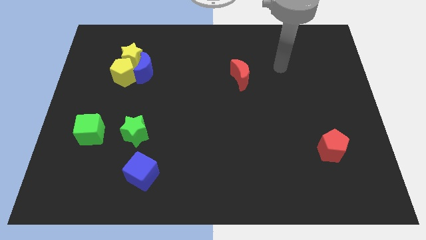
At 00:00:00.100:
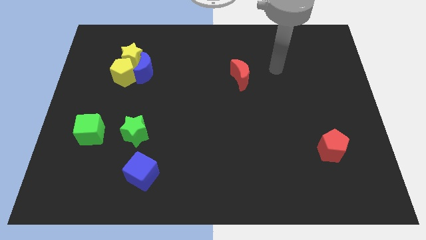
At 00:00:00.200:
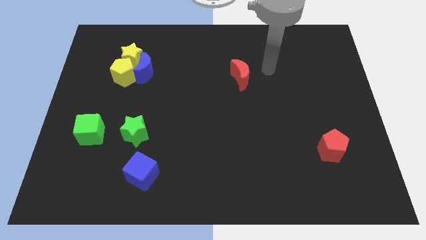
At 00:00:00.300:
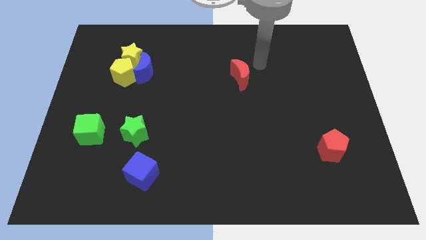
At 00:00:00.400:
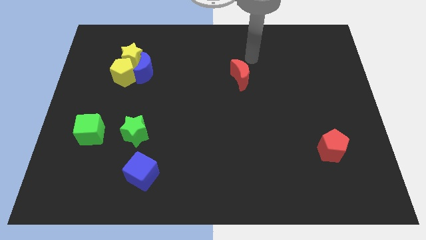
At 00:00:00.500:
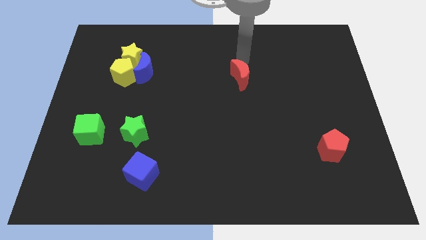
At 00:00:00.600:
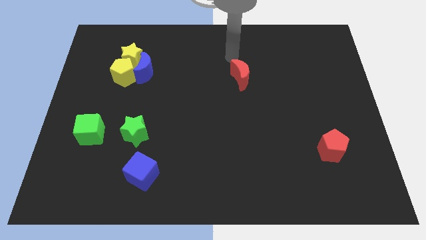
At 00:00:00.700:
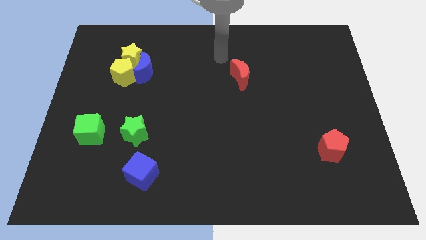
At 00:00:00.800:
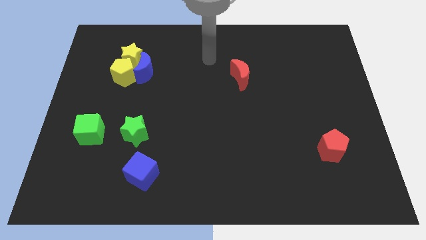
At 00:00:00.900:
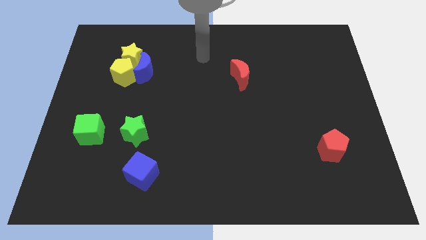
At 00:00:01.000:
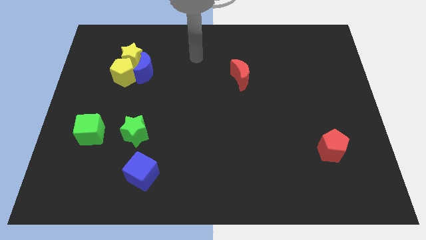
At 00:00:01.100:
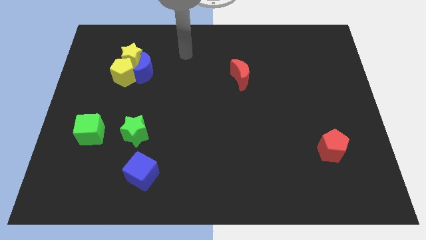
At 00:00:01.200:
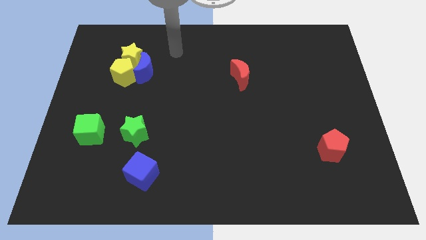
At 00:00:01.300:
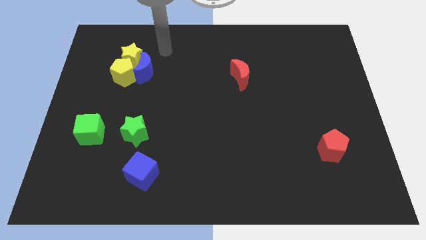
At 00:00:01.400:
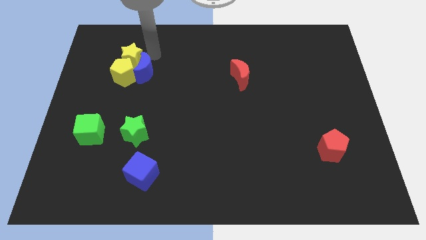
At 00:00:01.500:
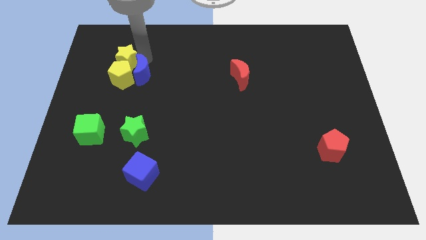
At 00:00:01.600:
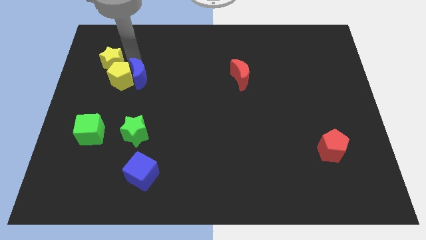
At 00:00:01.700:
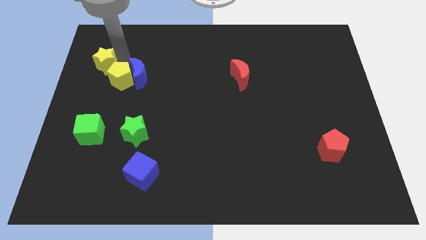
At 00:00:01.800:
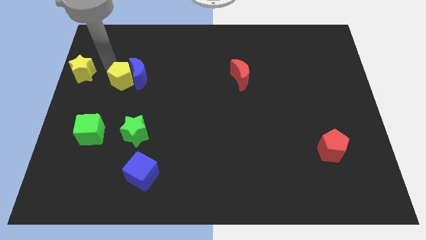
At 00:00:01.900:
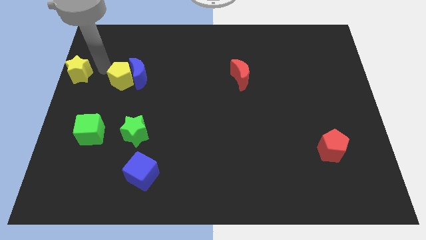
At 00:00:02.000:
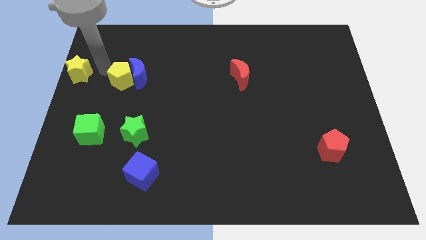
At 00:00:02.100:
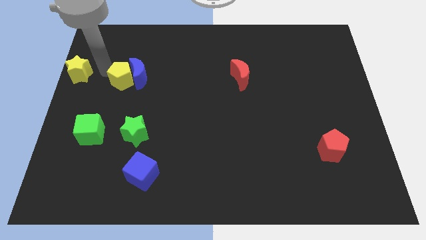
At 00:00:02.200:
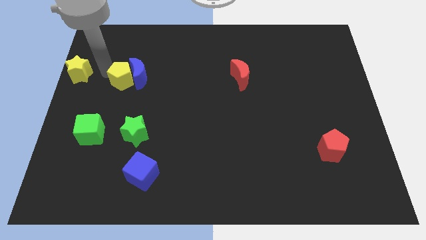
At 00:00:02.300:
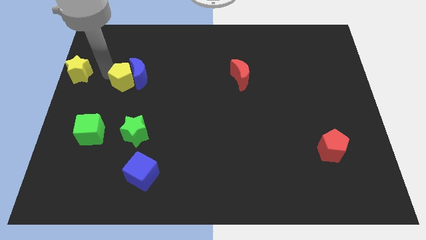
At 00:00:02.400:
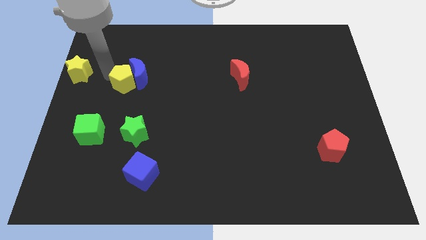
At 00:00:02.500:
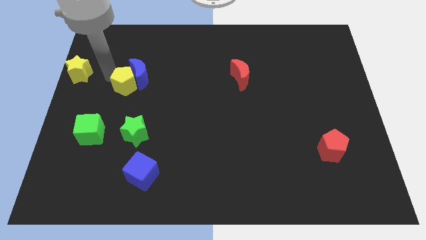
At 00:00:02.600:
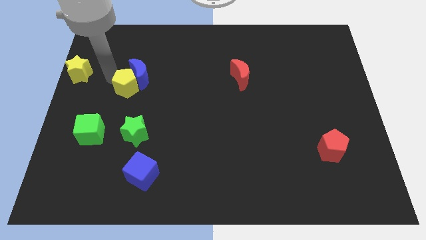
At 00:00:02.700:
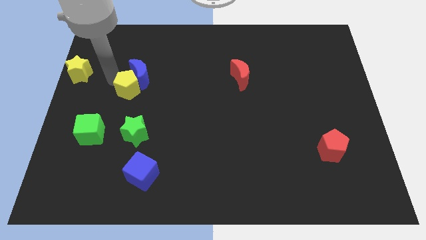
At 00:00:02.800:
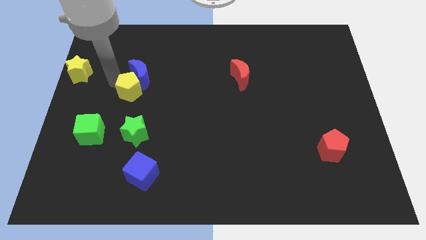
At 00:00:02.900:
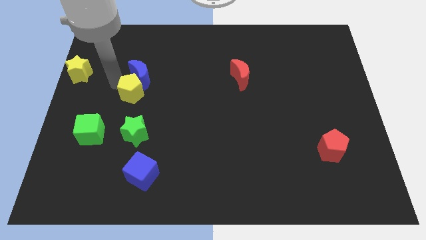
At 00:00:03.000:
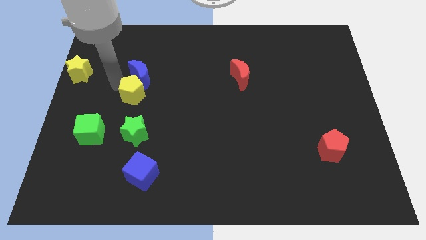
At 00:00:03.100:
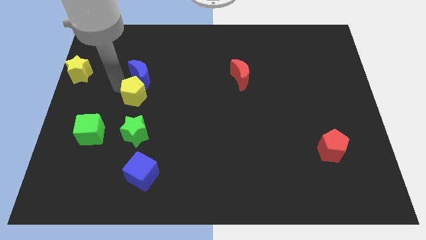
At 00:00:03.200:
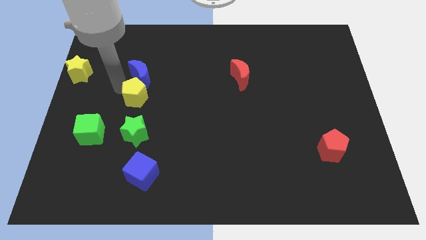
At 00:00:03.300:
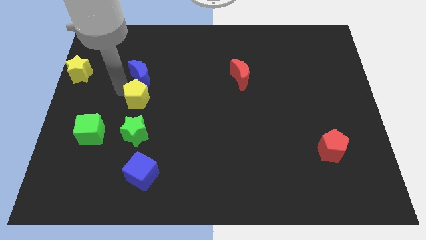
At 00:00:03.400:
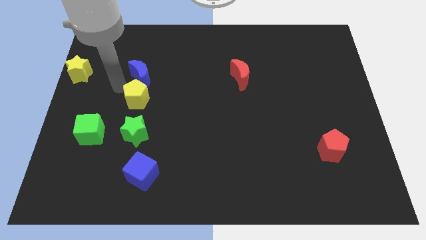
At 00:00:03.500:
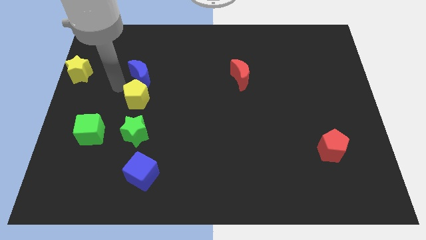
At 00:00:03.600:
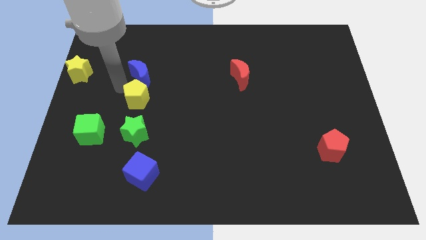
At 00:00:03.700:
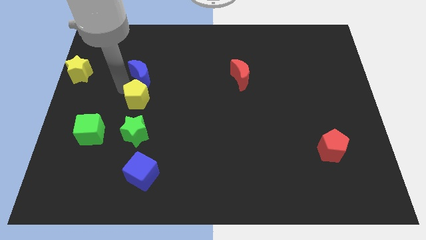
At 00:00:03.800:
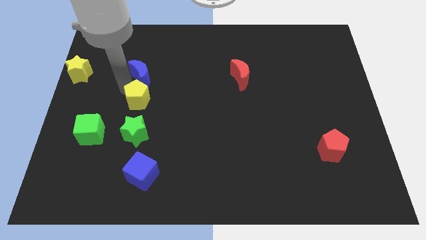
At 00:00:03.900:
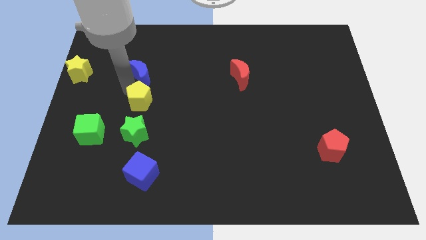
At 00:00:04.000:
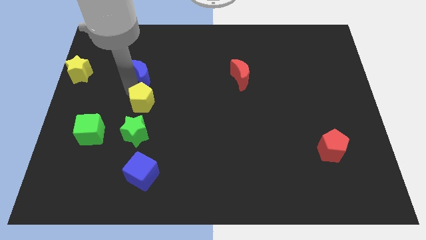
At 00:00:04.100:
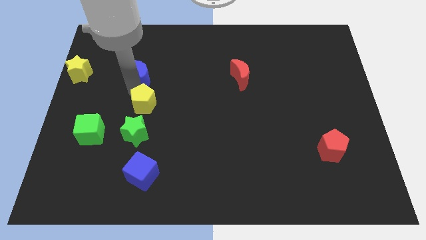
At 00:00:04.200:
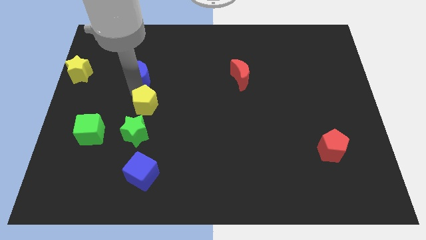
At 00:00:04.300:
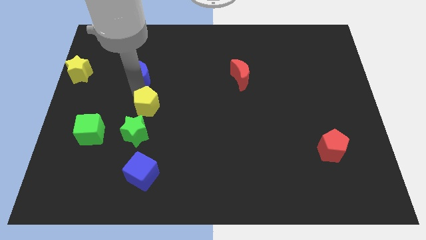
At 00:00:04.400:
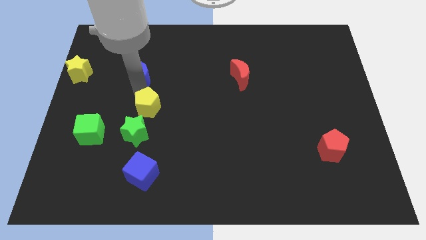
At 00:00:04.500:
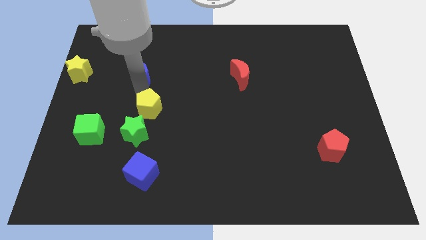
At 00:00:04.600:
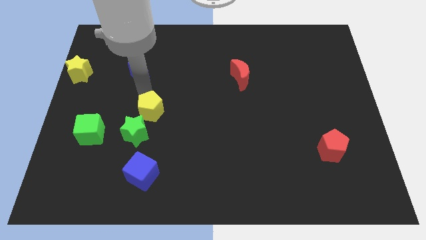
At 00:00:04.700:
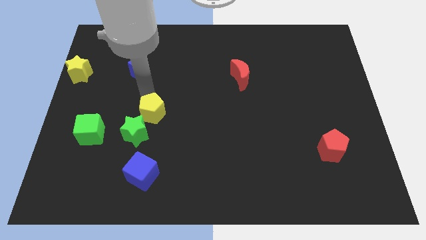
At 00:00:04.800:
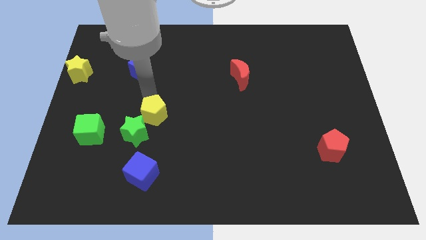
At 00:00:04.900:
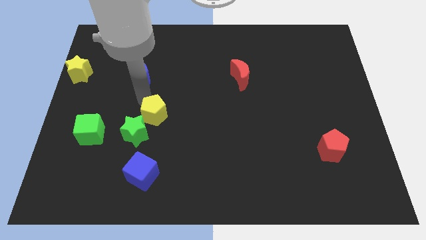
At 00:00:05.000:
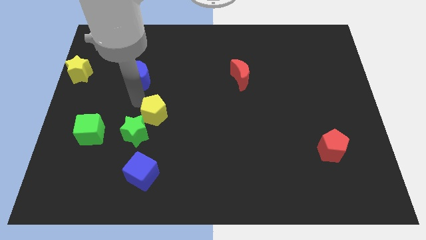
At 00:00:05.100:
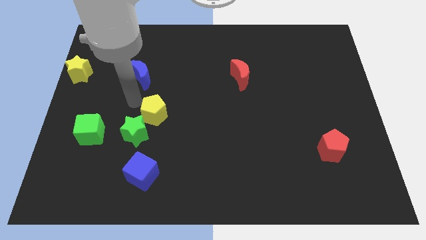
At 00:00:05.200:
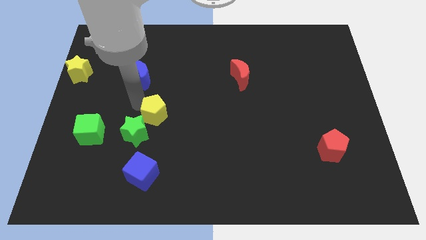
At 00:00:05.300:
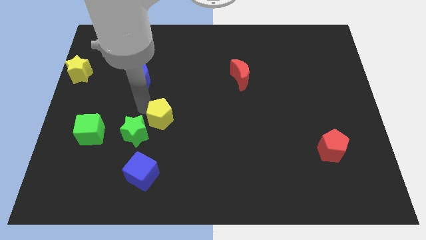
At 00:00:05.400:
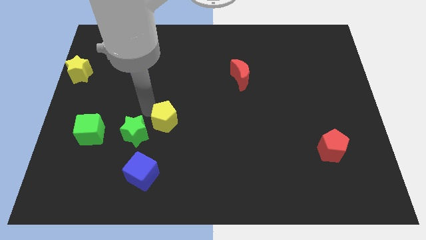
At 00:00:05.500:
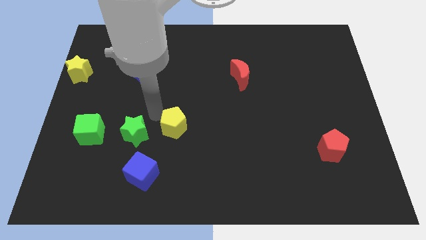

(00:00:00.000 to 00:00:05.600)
push the yellow pentagon downwards and right

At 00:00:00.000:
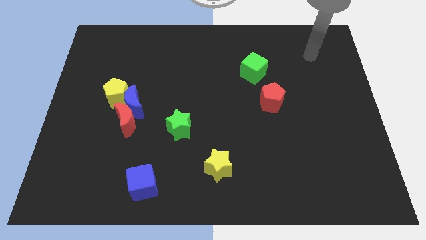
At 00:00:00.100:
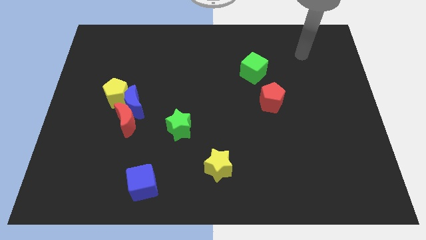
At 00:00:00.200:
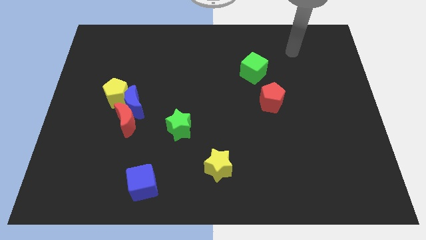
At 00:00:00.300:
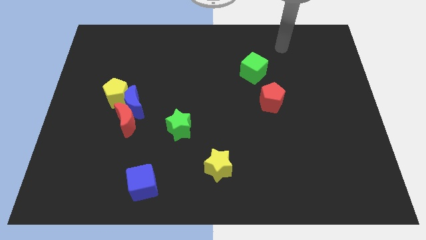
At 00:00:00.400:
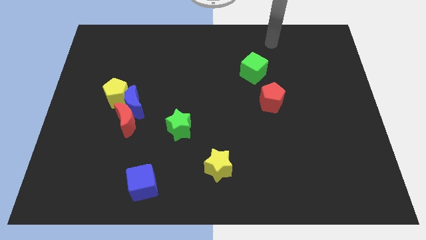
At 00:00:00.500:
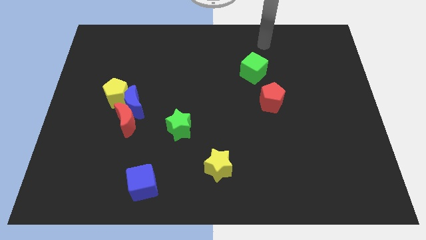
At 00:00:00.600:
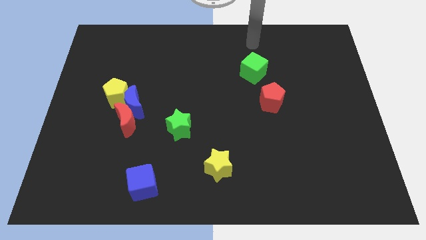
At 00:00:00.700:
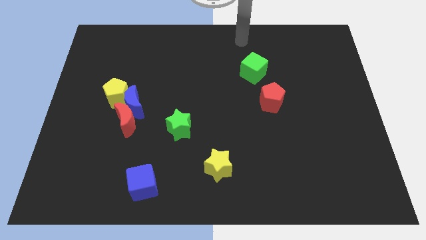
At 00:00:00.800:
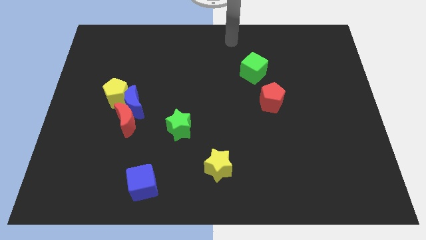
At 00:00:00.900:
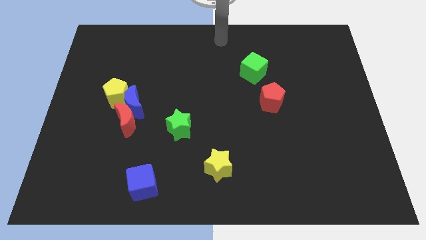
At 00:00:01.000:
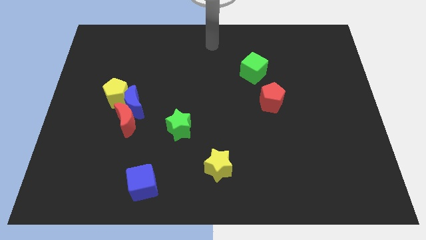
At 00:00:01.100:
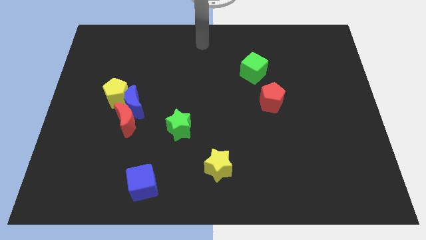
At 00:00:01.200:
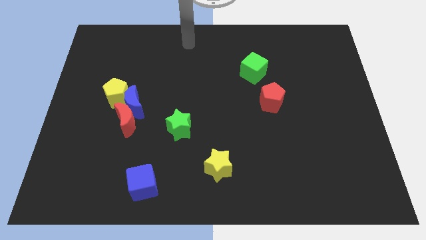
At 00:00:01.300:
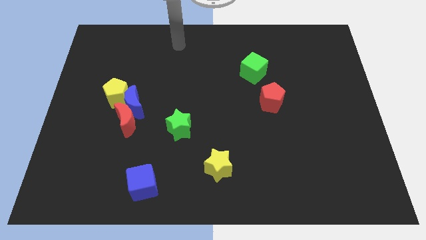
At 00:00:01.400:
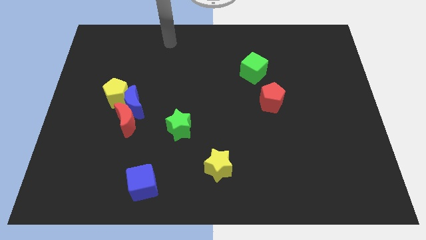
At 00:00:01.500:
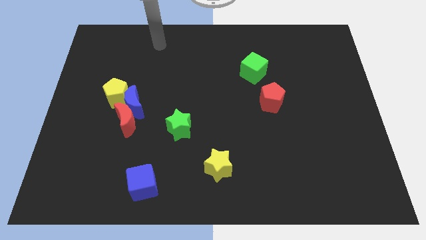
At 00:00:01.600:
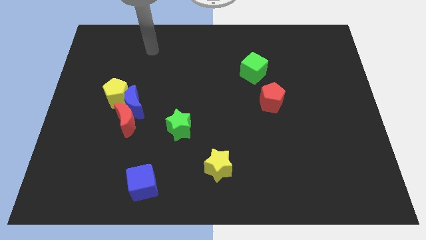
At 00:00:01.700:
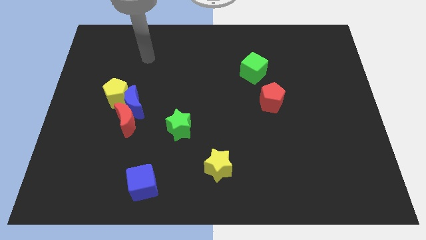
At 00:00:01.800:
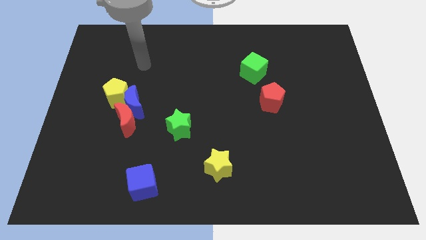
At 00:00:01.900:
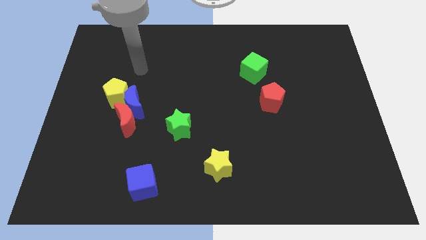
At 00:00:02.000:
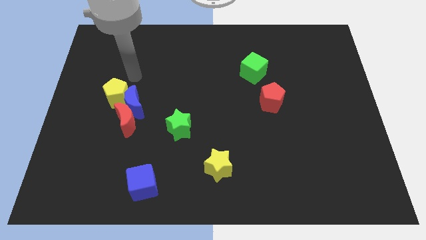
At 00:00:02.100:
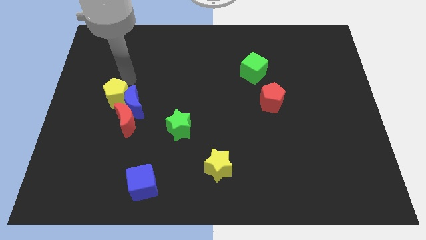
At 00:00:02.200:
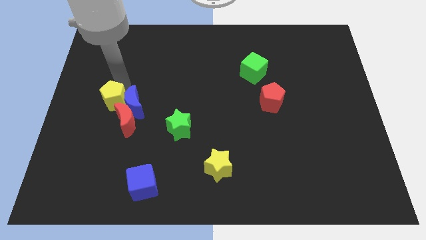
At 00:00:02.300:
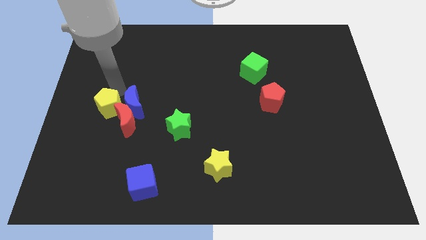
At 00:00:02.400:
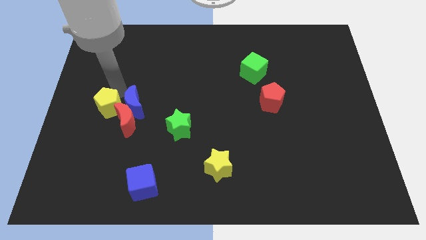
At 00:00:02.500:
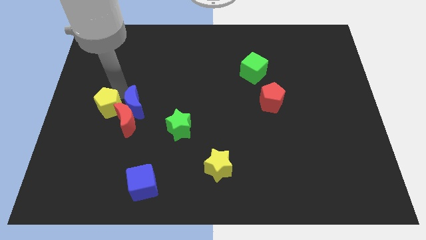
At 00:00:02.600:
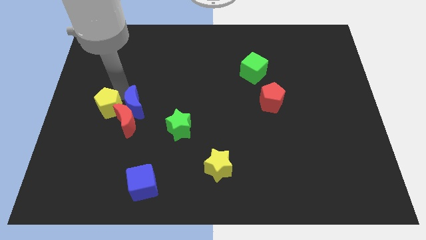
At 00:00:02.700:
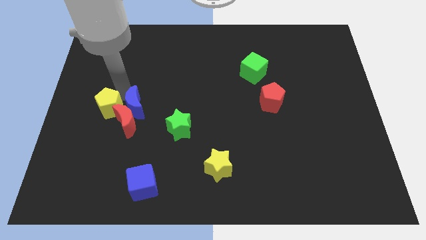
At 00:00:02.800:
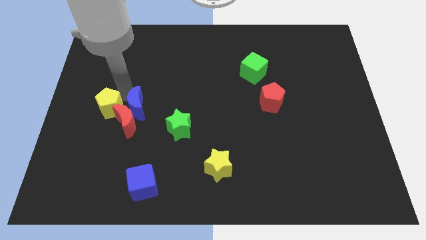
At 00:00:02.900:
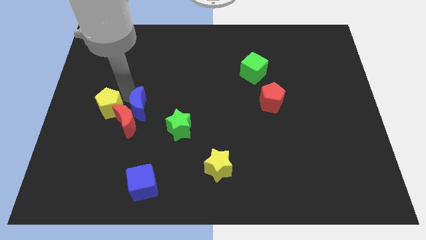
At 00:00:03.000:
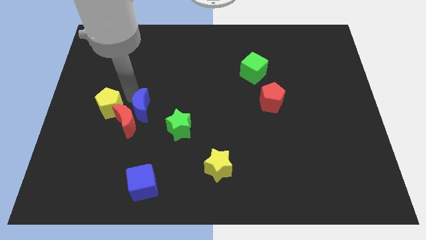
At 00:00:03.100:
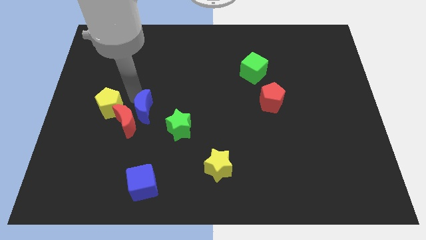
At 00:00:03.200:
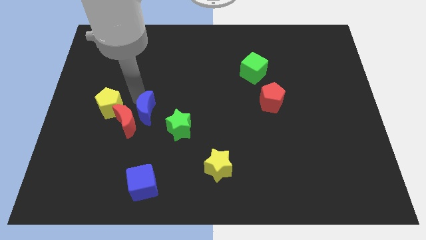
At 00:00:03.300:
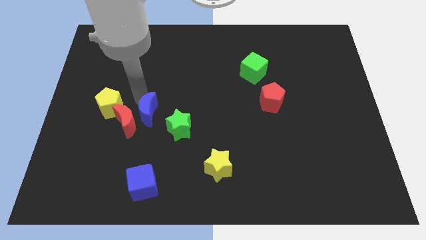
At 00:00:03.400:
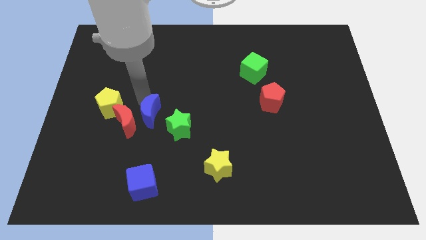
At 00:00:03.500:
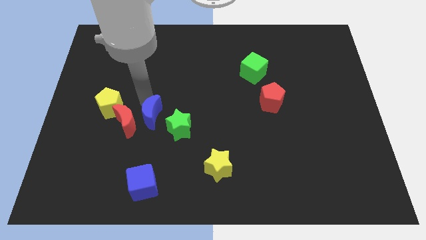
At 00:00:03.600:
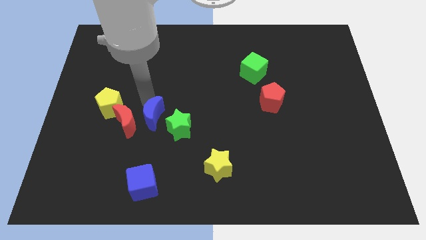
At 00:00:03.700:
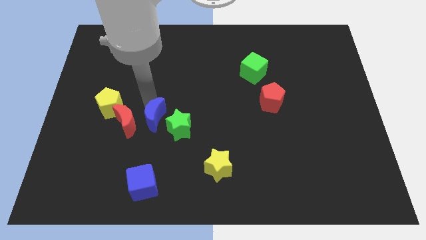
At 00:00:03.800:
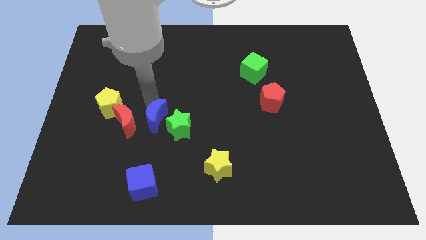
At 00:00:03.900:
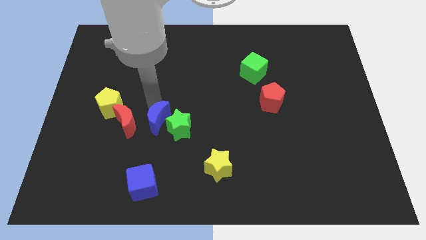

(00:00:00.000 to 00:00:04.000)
move the blue moon a little down and then to the right
